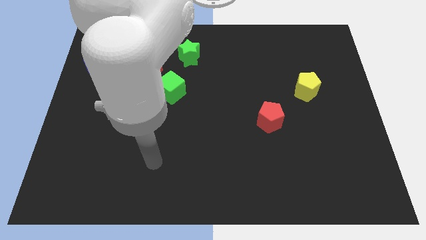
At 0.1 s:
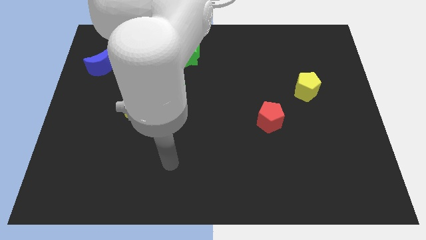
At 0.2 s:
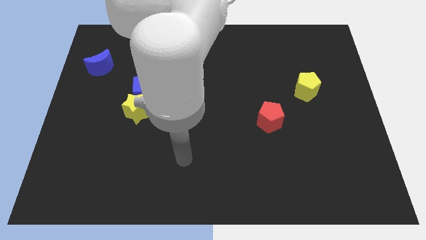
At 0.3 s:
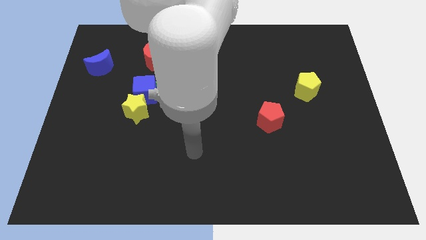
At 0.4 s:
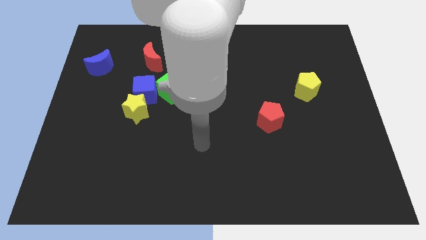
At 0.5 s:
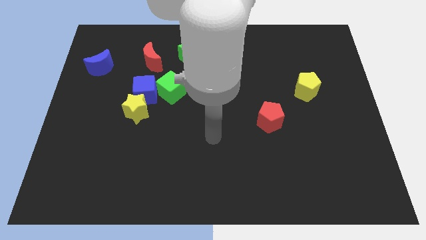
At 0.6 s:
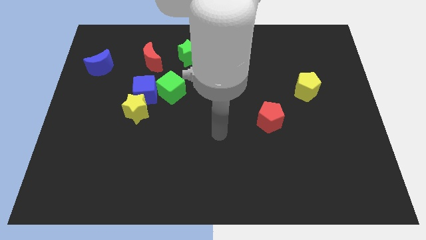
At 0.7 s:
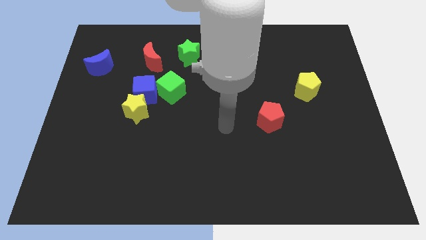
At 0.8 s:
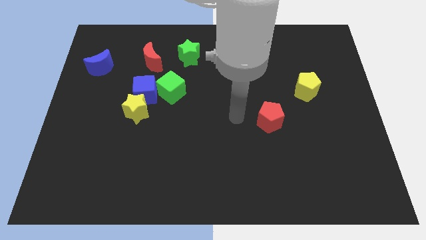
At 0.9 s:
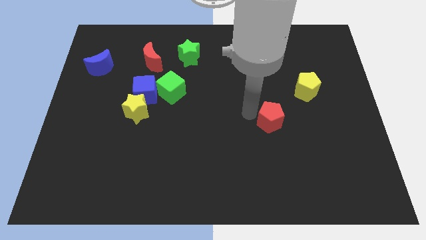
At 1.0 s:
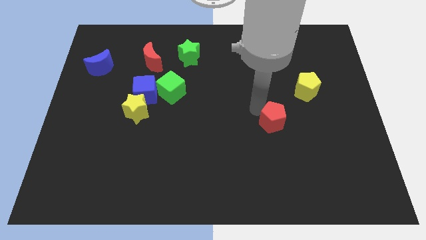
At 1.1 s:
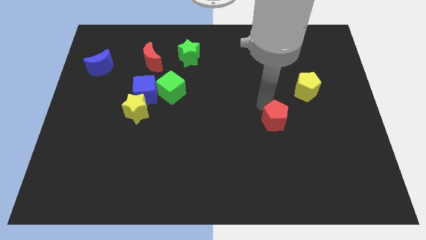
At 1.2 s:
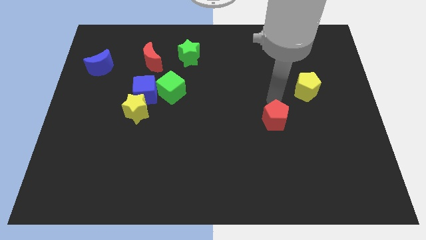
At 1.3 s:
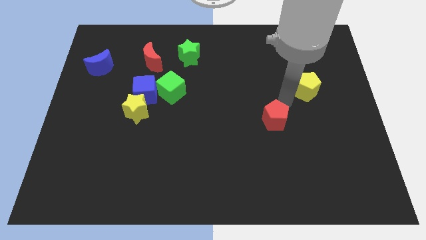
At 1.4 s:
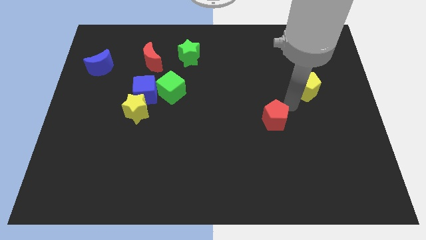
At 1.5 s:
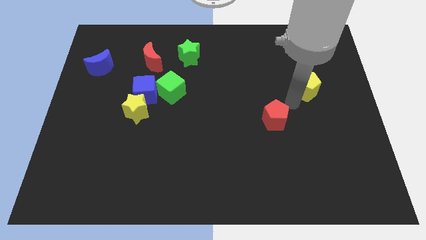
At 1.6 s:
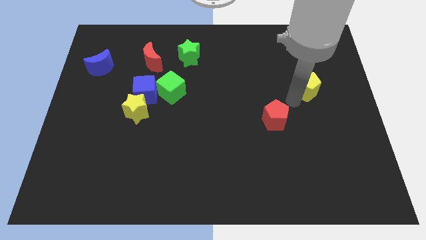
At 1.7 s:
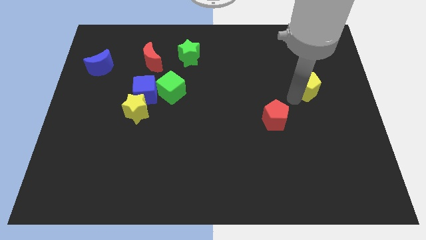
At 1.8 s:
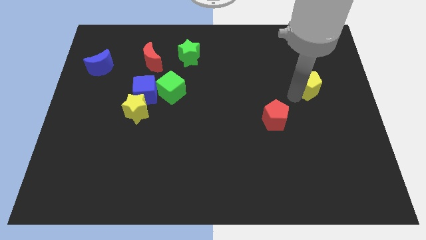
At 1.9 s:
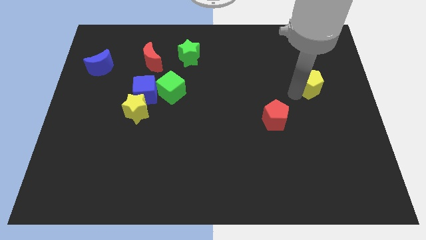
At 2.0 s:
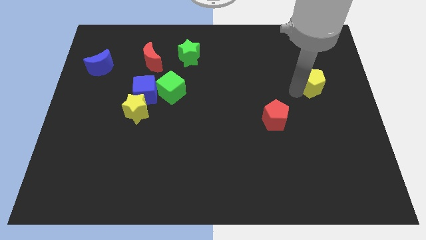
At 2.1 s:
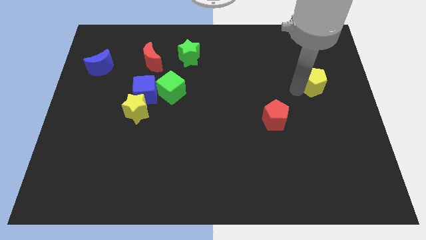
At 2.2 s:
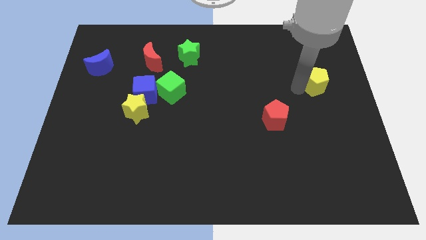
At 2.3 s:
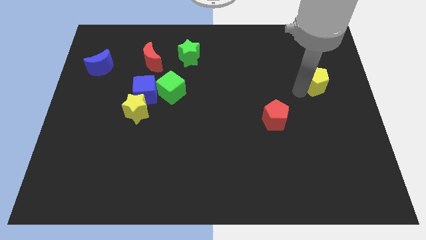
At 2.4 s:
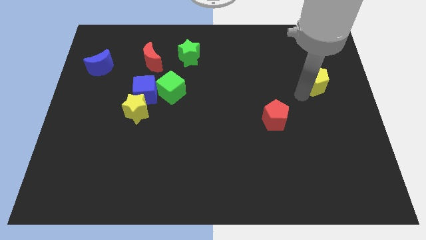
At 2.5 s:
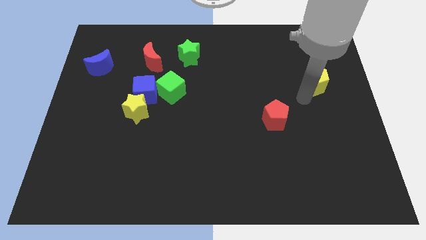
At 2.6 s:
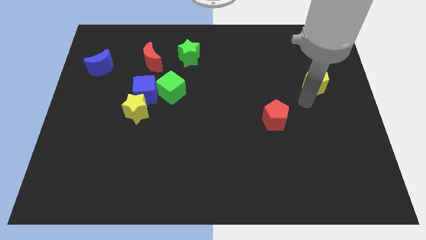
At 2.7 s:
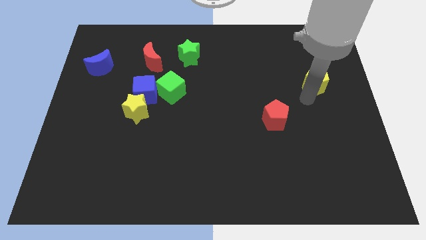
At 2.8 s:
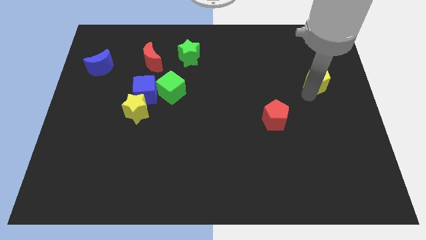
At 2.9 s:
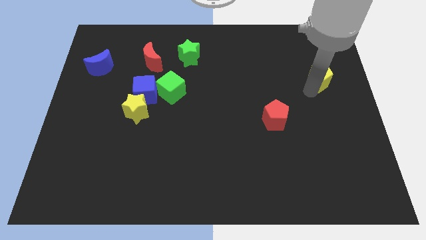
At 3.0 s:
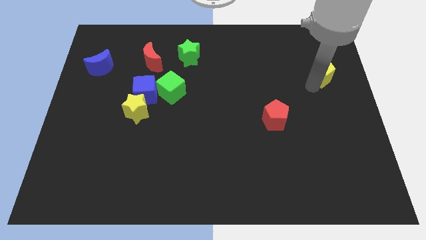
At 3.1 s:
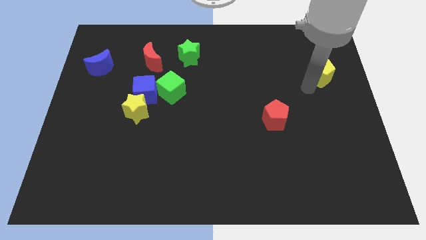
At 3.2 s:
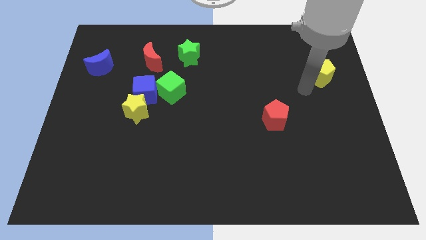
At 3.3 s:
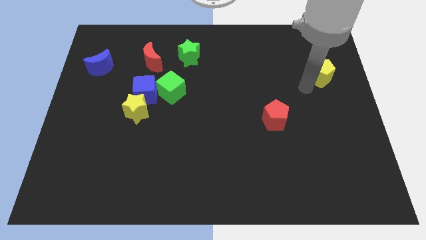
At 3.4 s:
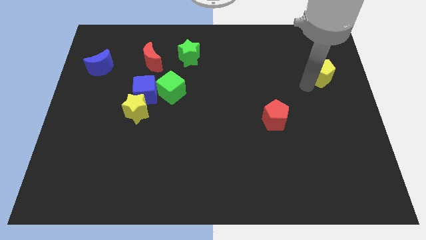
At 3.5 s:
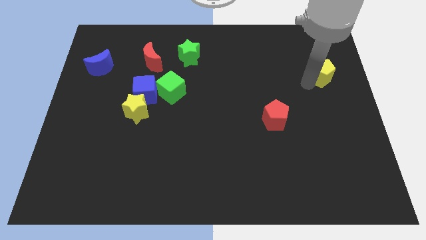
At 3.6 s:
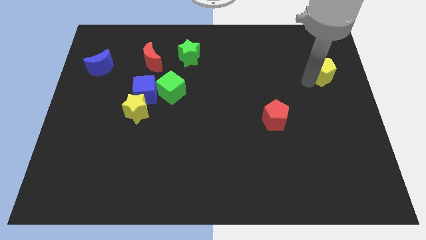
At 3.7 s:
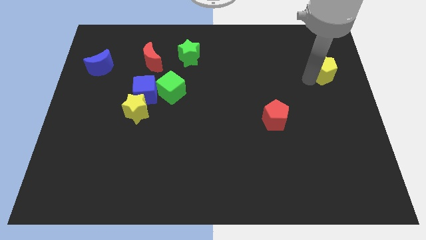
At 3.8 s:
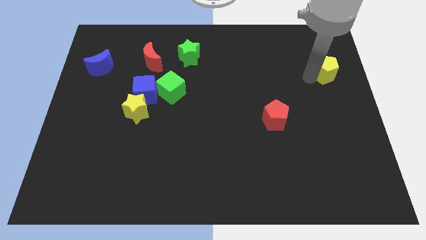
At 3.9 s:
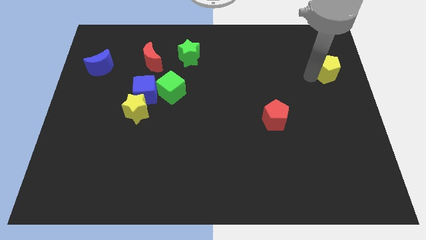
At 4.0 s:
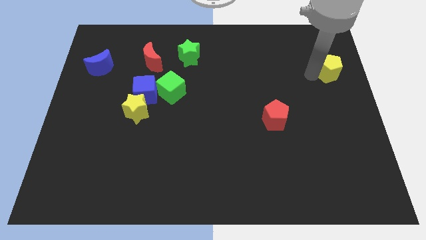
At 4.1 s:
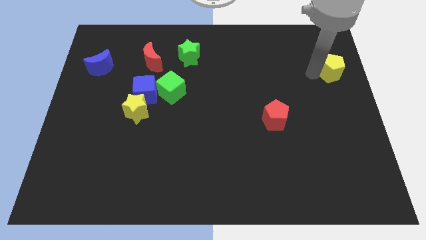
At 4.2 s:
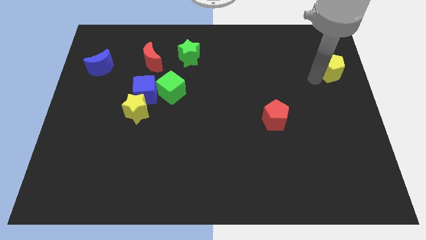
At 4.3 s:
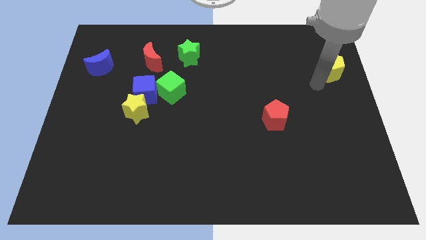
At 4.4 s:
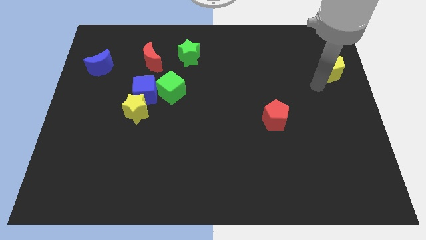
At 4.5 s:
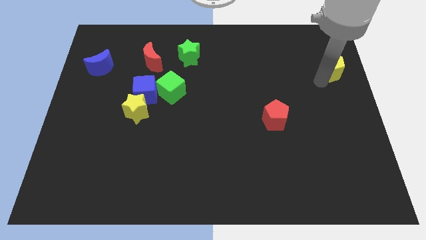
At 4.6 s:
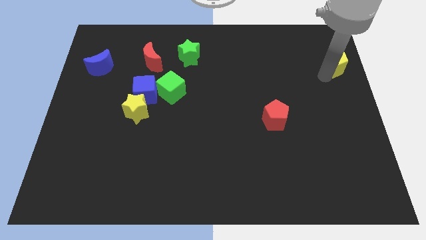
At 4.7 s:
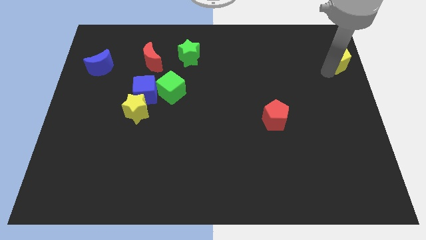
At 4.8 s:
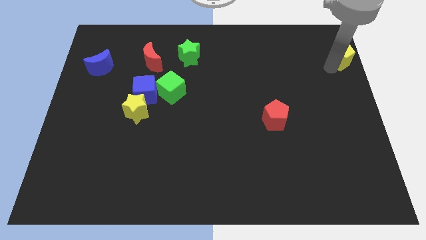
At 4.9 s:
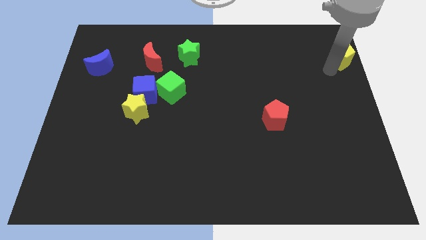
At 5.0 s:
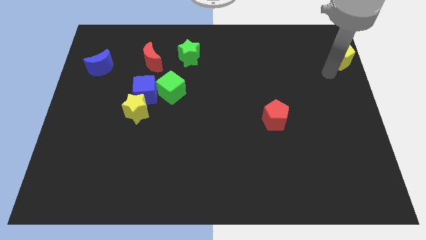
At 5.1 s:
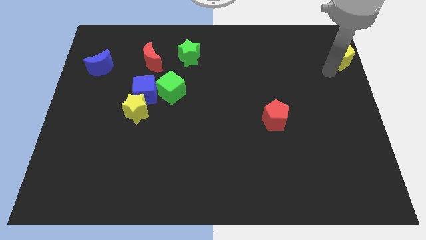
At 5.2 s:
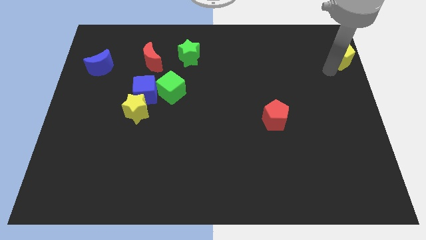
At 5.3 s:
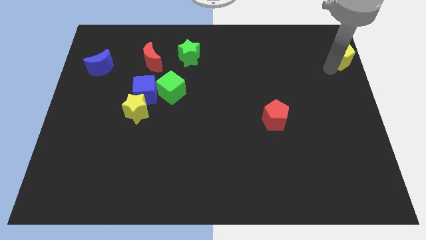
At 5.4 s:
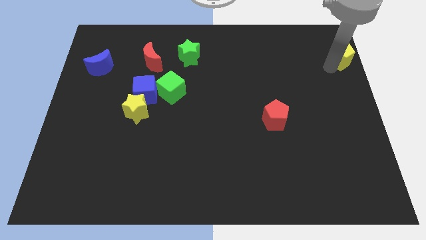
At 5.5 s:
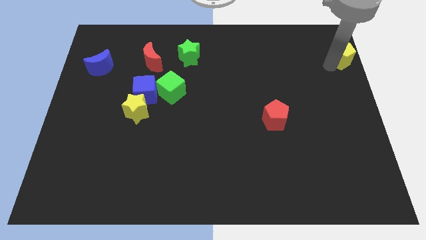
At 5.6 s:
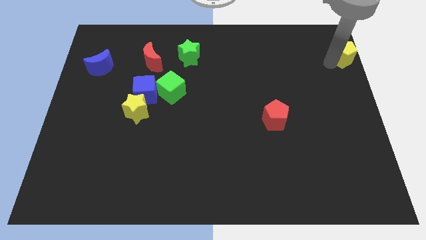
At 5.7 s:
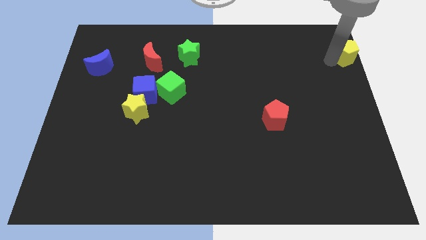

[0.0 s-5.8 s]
put the yellow pentagon to the top right

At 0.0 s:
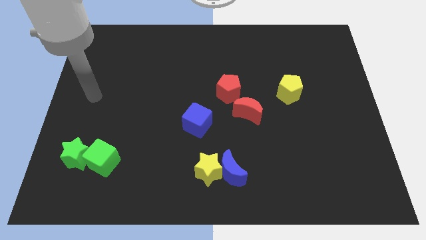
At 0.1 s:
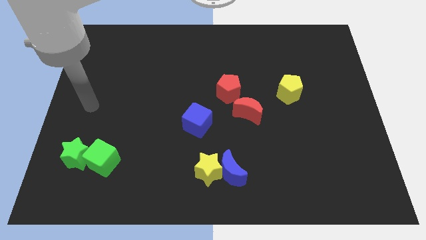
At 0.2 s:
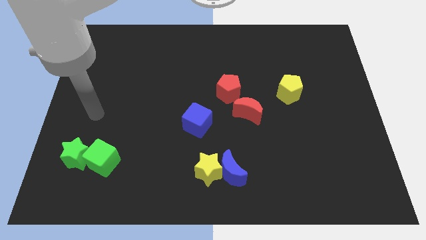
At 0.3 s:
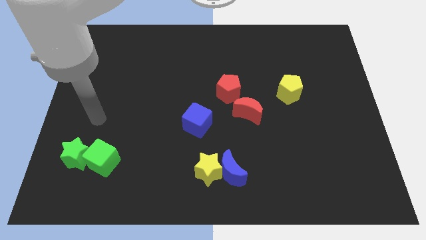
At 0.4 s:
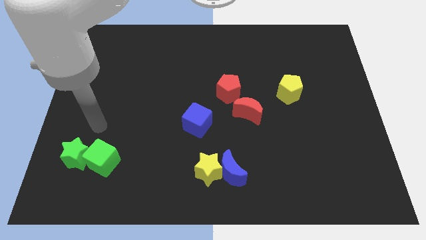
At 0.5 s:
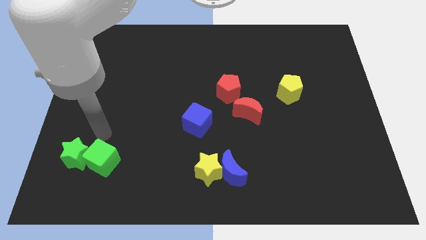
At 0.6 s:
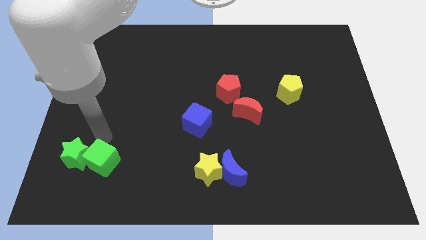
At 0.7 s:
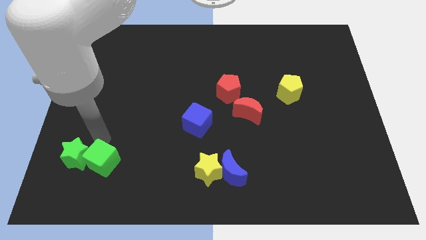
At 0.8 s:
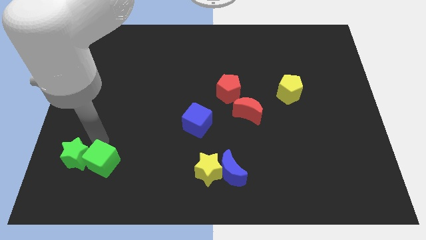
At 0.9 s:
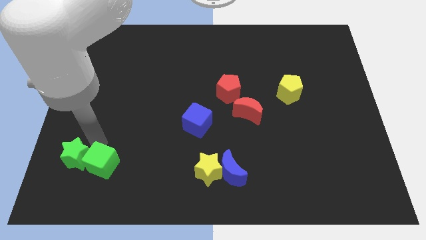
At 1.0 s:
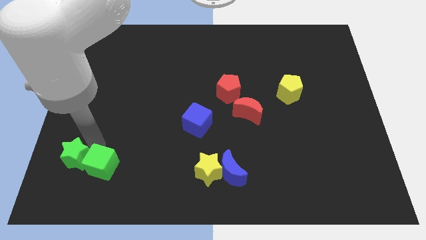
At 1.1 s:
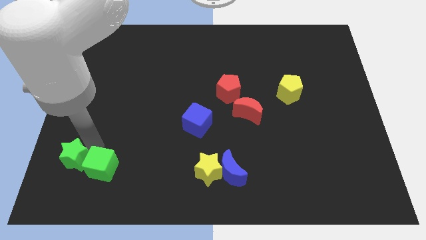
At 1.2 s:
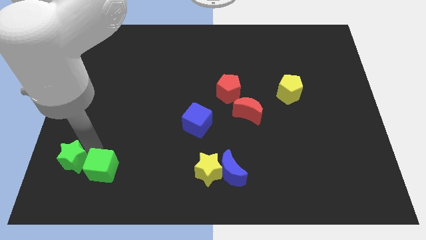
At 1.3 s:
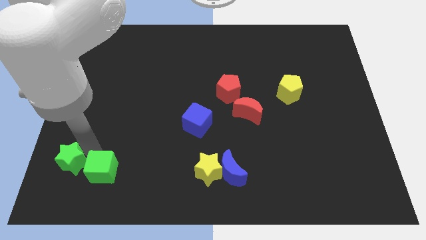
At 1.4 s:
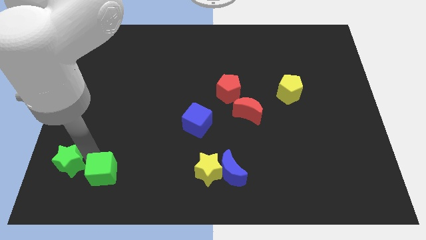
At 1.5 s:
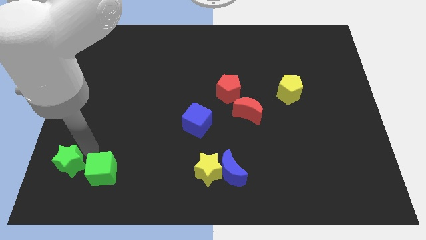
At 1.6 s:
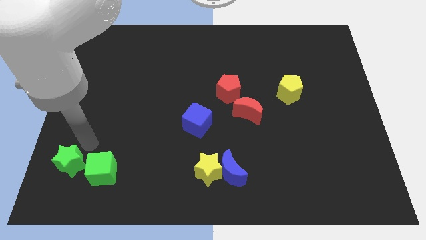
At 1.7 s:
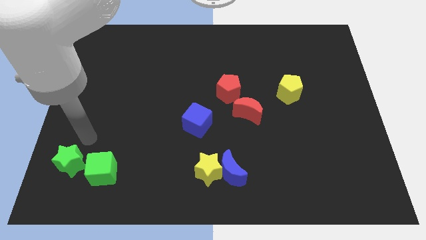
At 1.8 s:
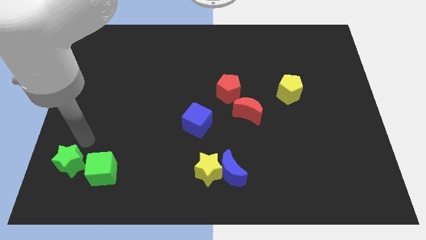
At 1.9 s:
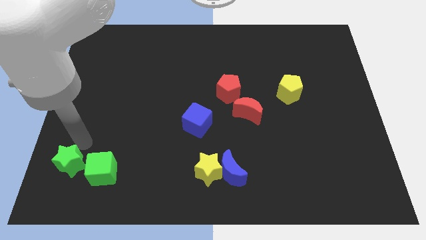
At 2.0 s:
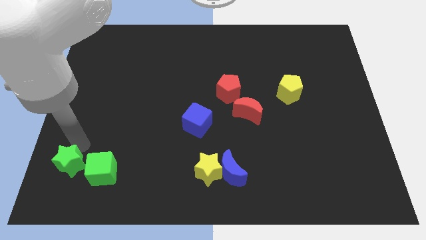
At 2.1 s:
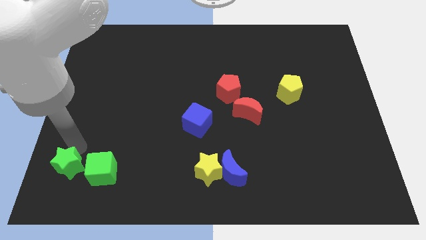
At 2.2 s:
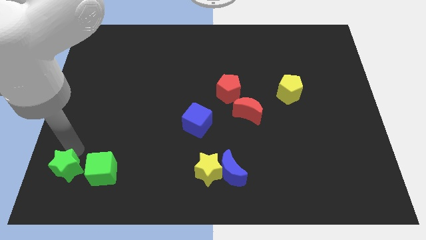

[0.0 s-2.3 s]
move the green star to the bottom left corner
